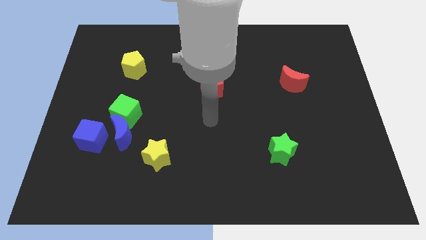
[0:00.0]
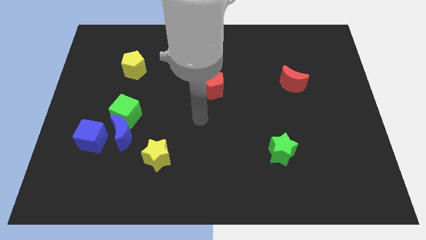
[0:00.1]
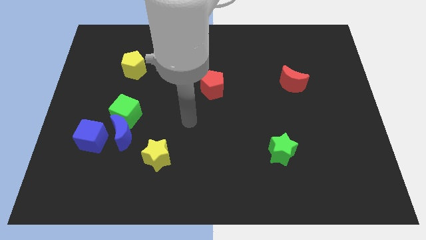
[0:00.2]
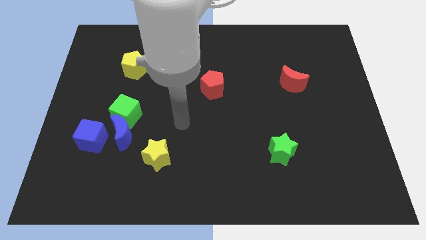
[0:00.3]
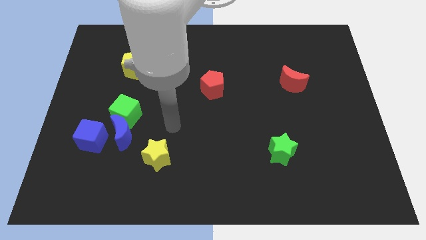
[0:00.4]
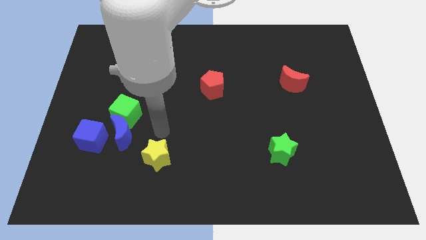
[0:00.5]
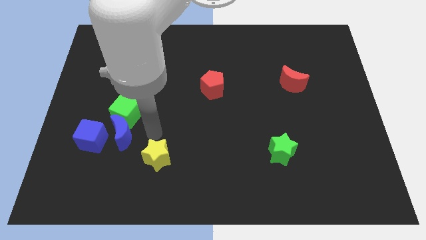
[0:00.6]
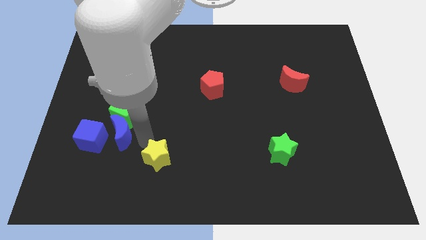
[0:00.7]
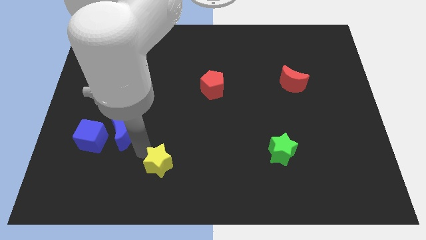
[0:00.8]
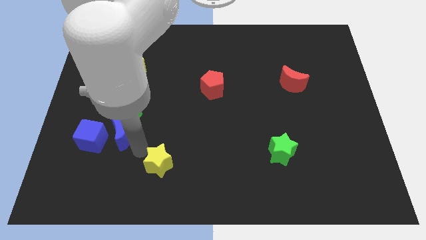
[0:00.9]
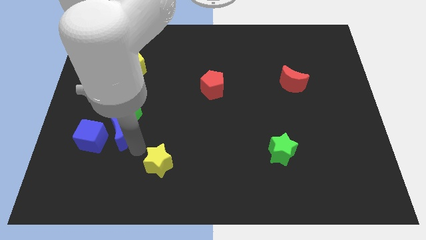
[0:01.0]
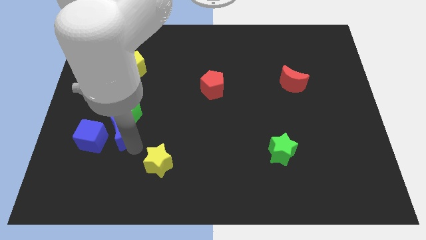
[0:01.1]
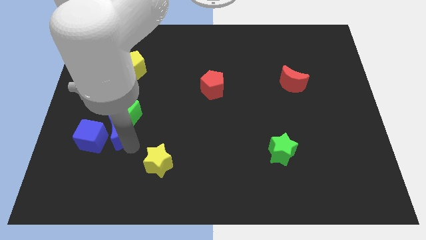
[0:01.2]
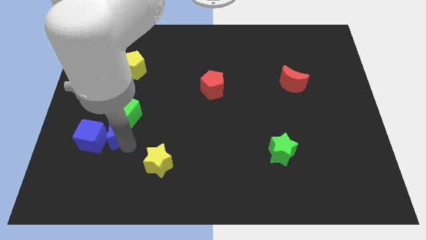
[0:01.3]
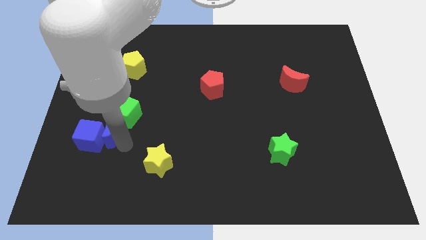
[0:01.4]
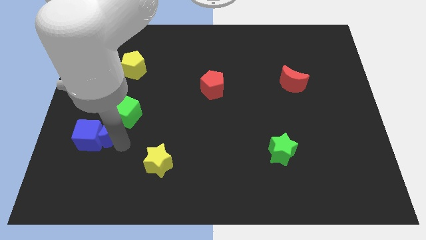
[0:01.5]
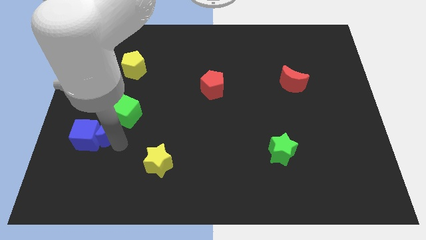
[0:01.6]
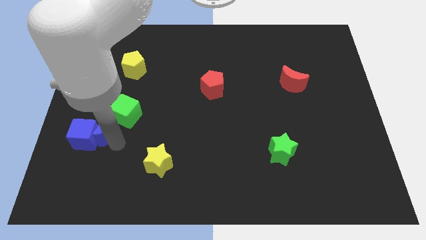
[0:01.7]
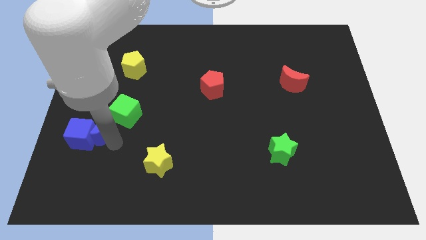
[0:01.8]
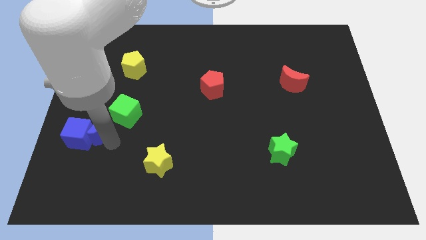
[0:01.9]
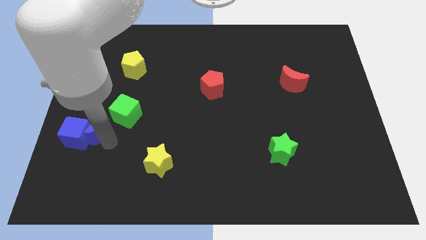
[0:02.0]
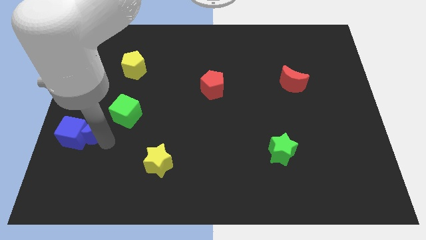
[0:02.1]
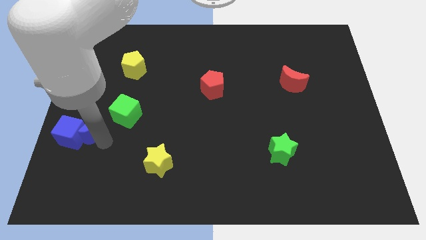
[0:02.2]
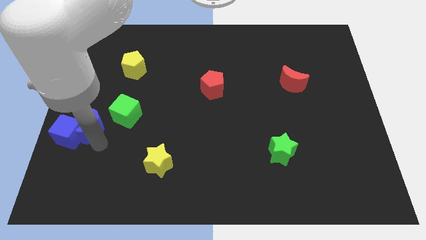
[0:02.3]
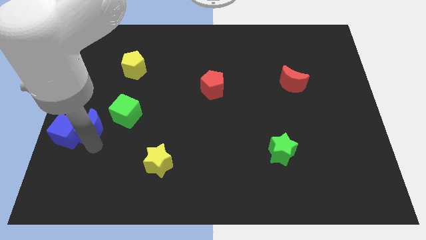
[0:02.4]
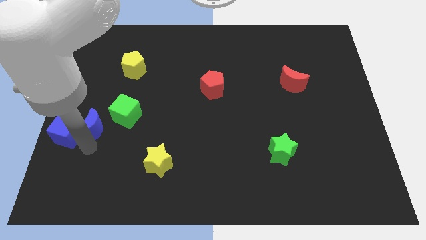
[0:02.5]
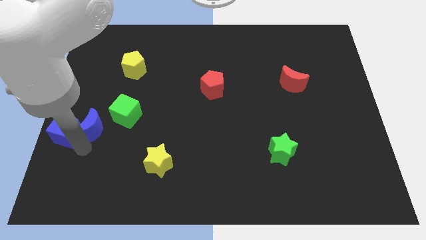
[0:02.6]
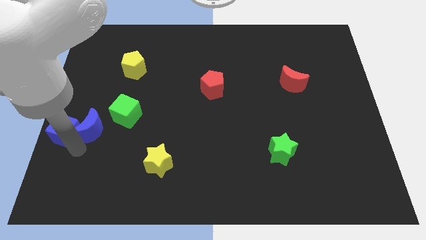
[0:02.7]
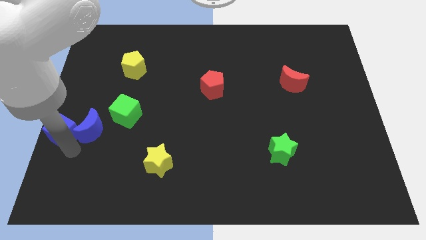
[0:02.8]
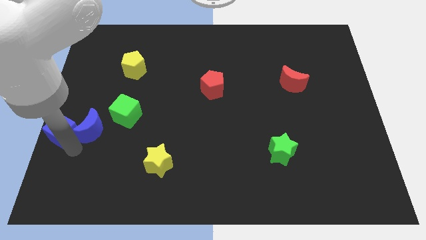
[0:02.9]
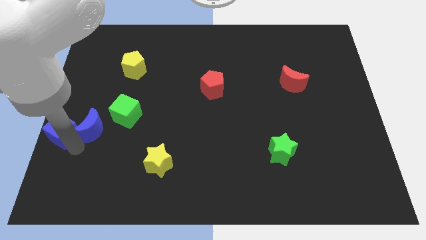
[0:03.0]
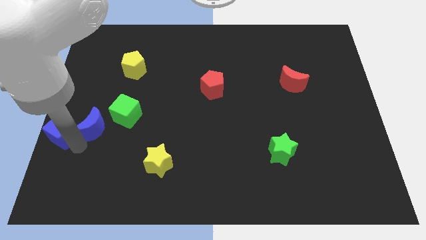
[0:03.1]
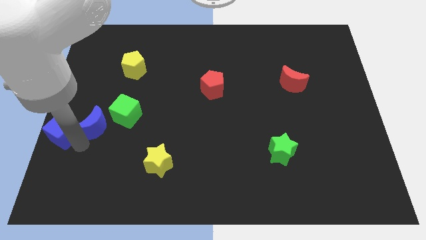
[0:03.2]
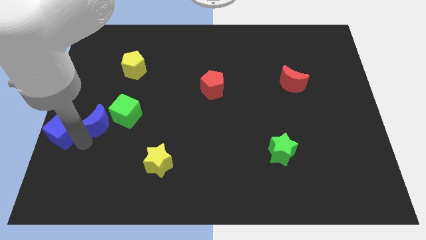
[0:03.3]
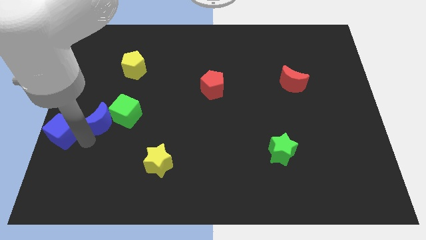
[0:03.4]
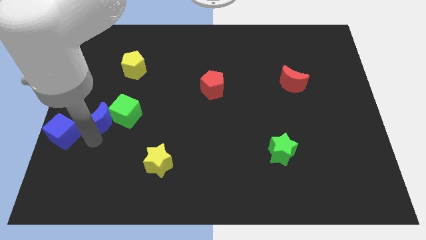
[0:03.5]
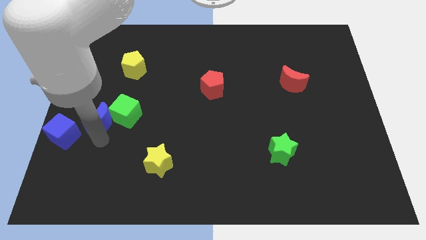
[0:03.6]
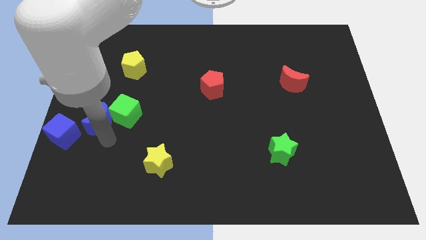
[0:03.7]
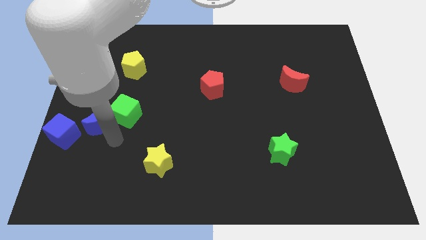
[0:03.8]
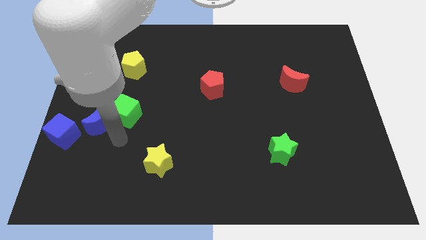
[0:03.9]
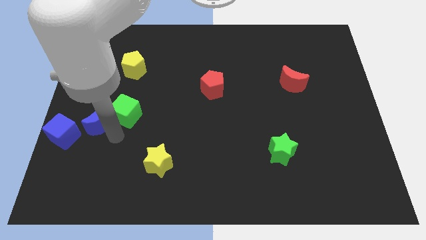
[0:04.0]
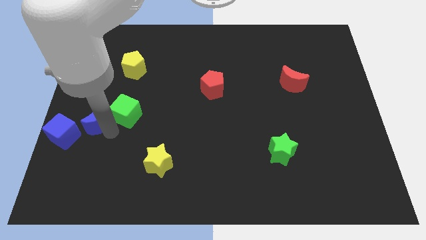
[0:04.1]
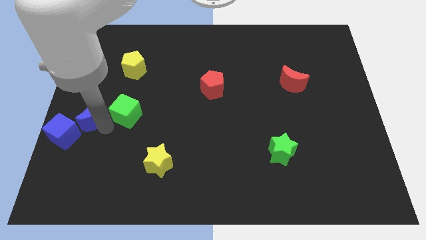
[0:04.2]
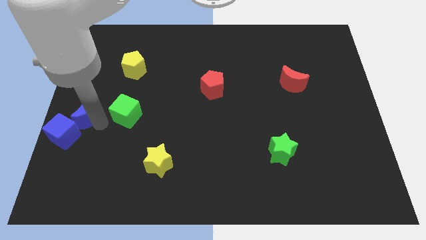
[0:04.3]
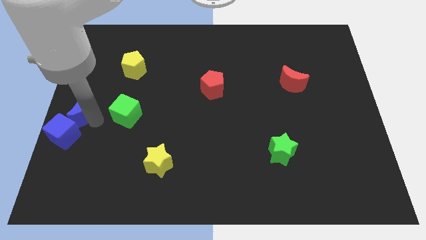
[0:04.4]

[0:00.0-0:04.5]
pull the blue moon apart from the group

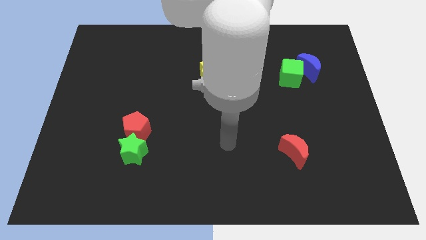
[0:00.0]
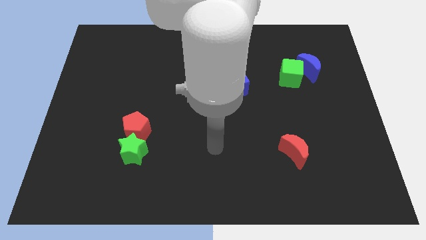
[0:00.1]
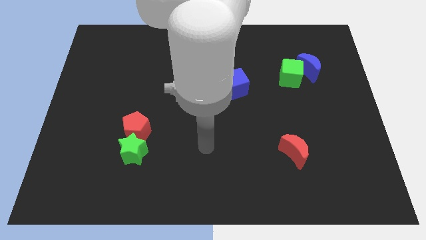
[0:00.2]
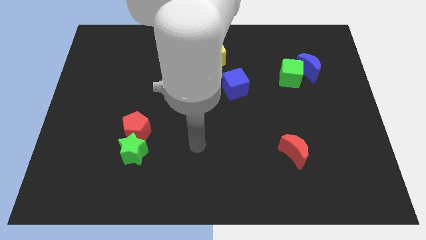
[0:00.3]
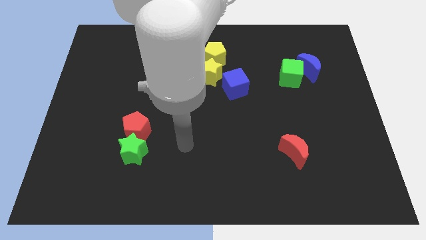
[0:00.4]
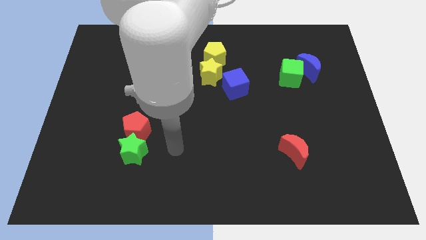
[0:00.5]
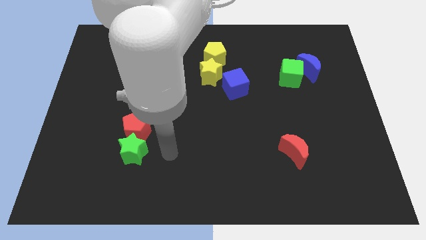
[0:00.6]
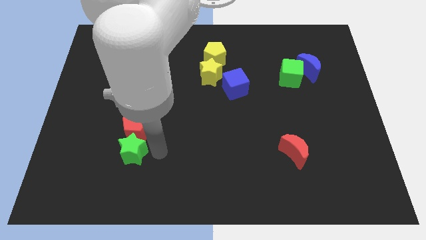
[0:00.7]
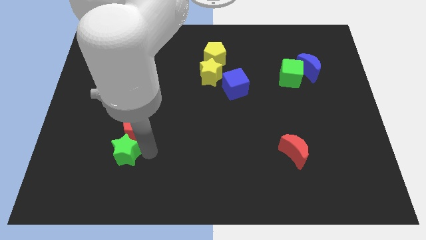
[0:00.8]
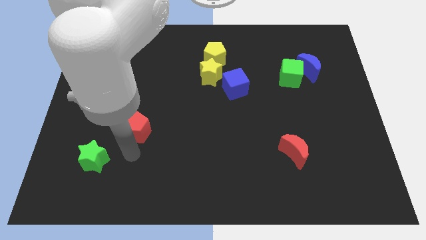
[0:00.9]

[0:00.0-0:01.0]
move the red pentagon away from the green star

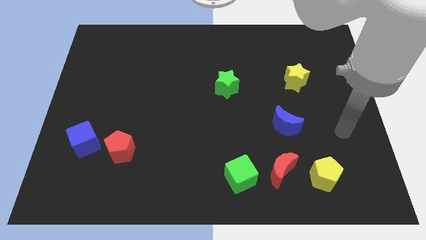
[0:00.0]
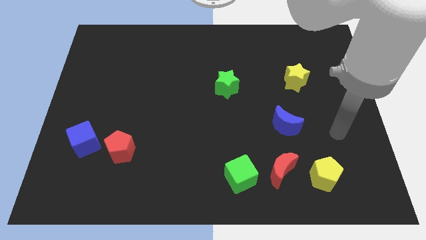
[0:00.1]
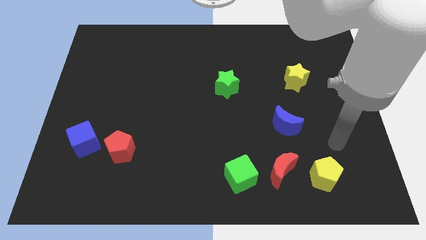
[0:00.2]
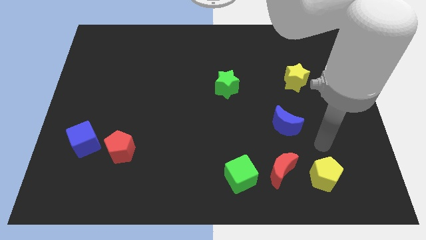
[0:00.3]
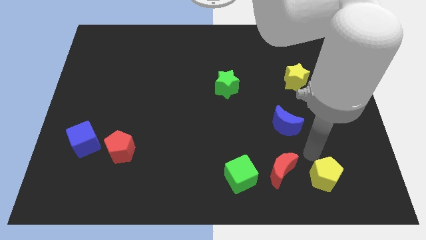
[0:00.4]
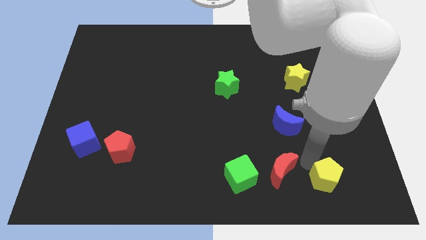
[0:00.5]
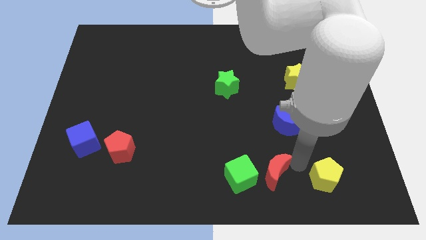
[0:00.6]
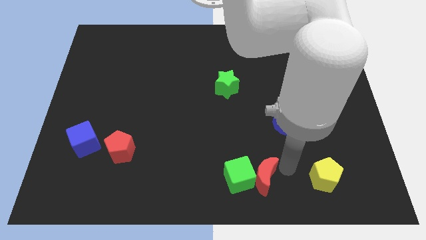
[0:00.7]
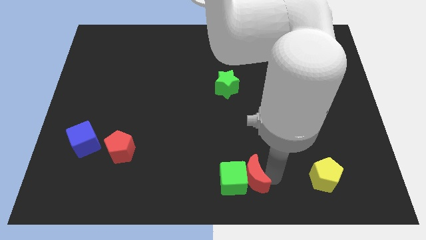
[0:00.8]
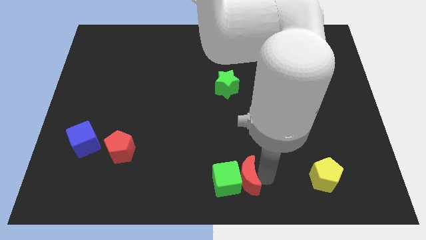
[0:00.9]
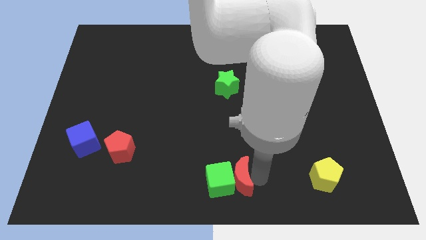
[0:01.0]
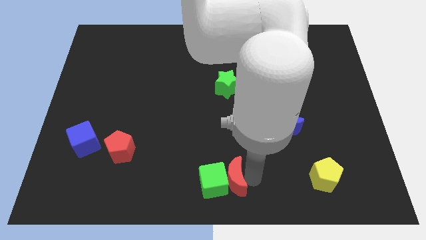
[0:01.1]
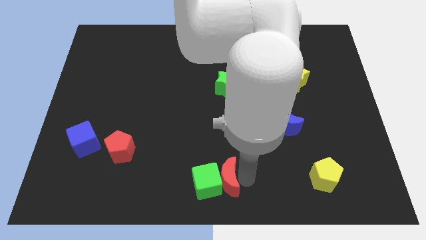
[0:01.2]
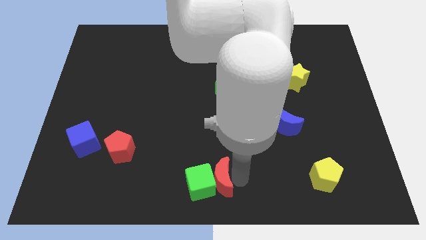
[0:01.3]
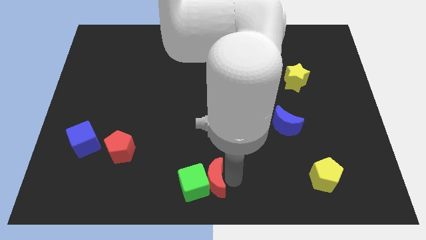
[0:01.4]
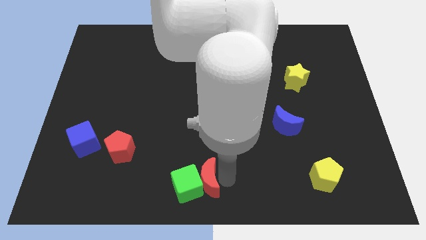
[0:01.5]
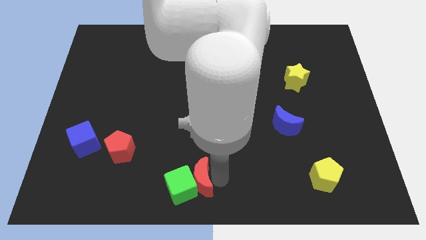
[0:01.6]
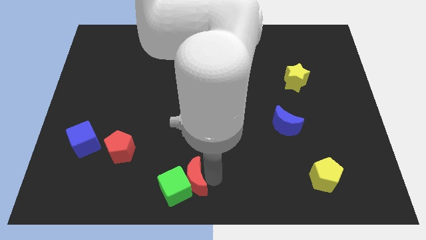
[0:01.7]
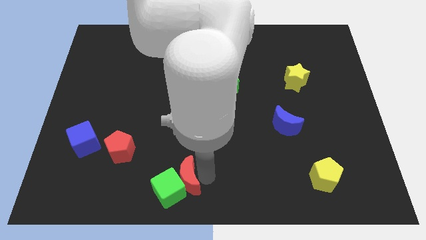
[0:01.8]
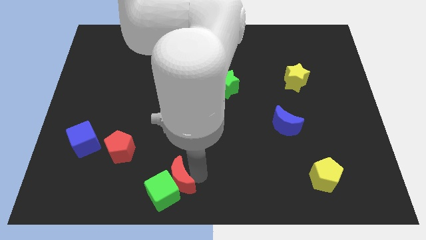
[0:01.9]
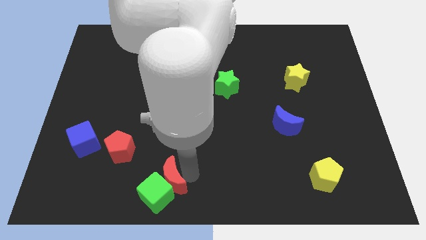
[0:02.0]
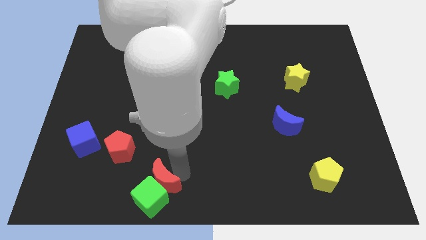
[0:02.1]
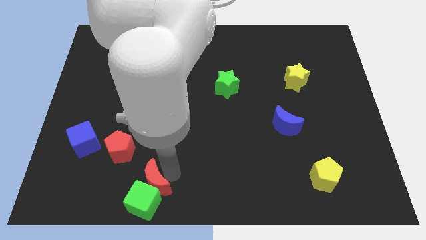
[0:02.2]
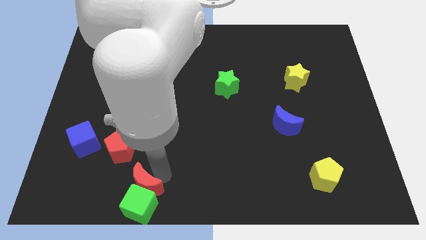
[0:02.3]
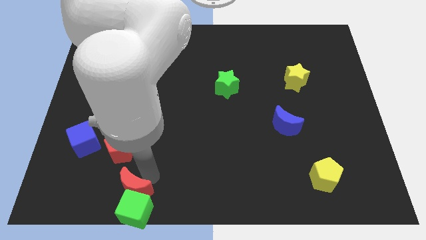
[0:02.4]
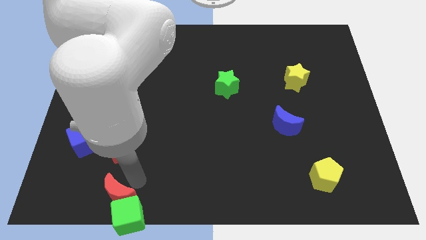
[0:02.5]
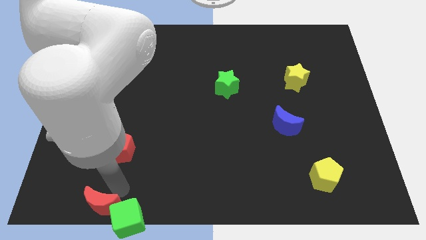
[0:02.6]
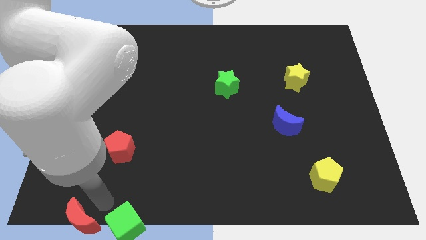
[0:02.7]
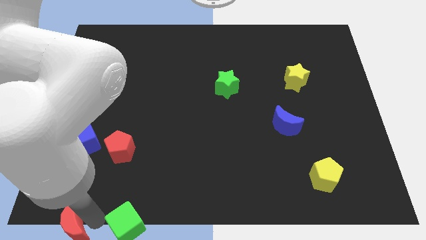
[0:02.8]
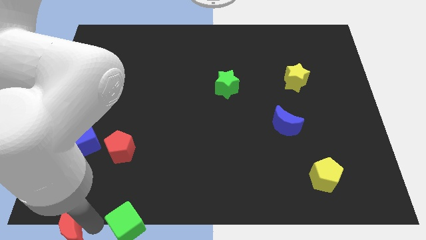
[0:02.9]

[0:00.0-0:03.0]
separate the green cube from the red moon

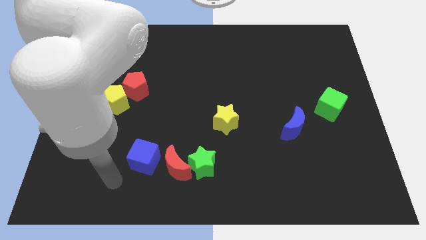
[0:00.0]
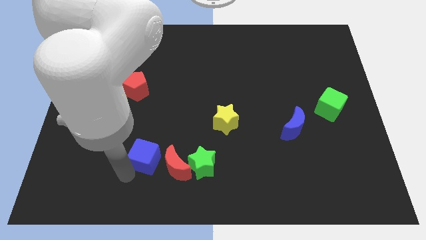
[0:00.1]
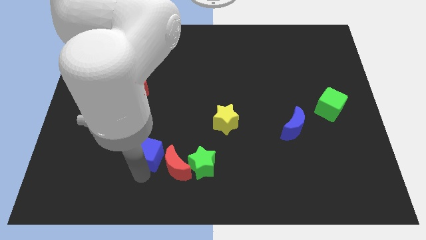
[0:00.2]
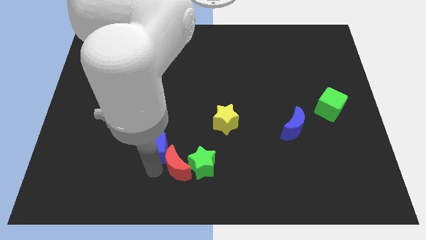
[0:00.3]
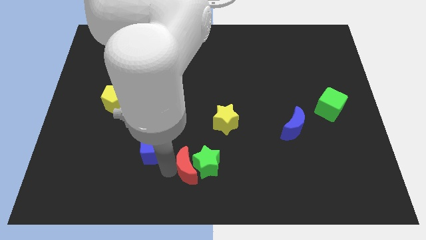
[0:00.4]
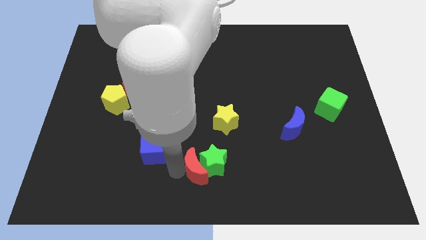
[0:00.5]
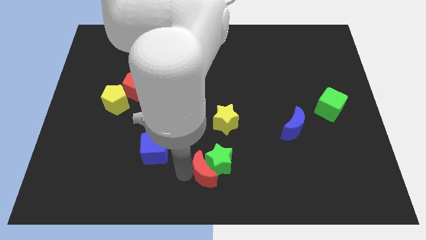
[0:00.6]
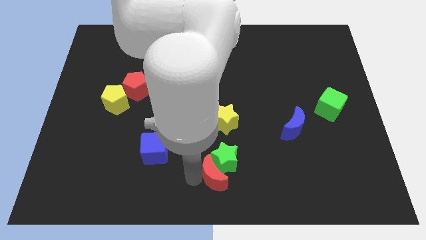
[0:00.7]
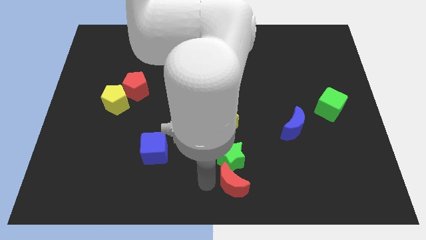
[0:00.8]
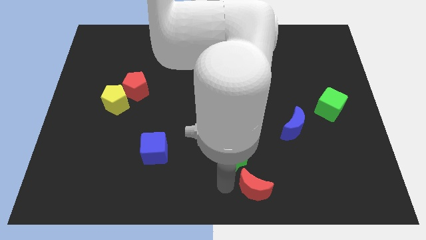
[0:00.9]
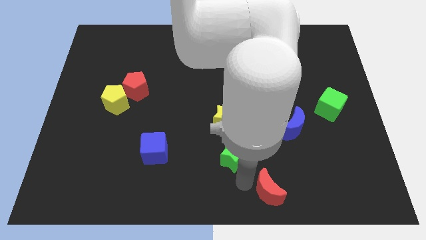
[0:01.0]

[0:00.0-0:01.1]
pull the green star apart from the red moon
